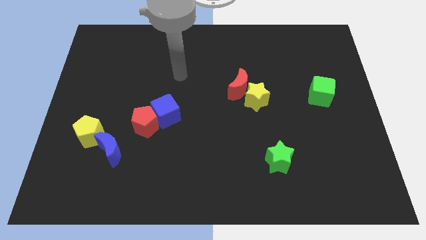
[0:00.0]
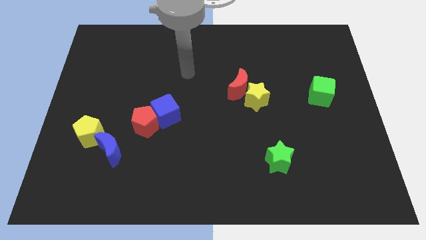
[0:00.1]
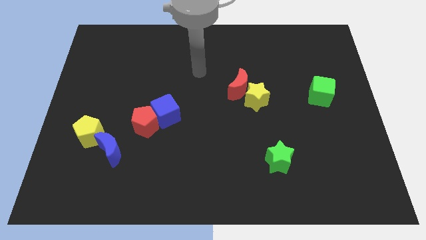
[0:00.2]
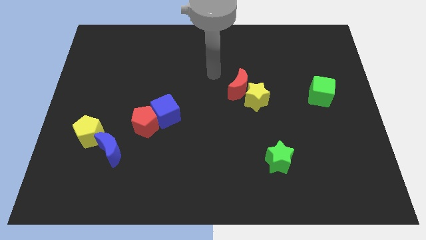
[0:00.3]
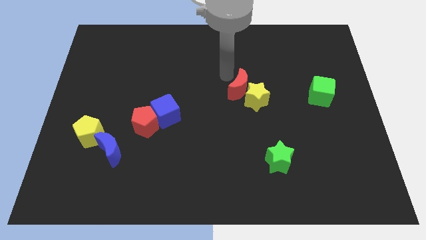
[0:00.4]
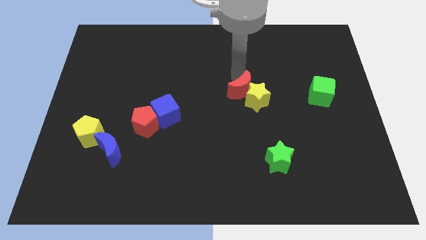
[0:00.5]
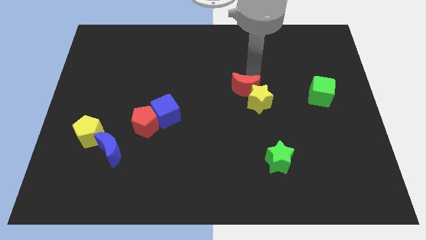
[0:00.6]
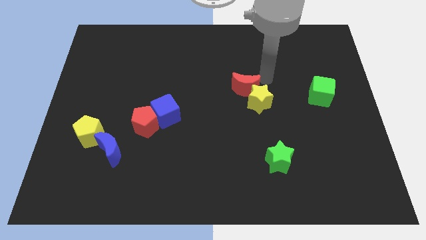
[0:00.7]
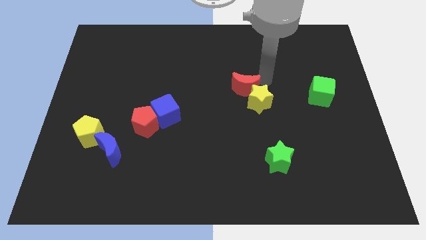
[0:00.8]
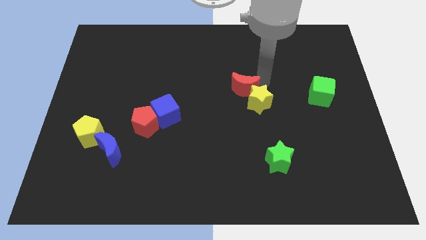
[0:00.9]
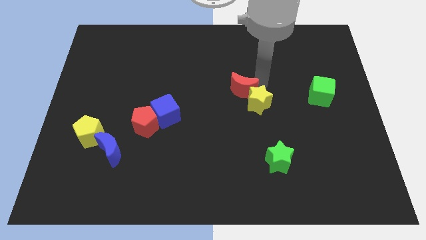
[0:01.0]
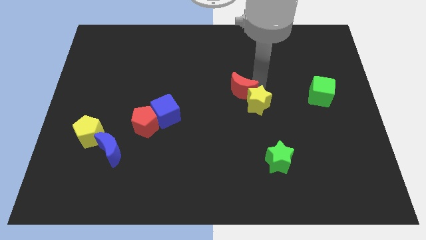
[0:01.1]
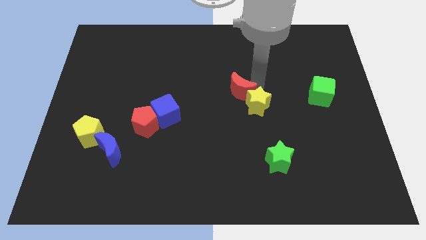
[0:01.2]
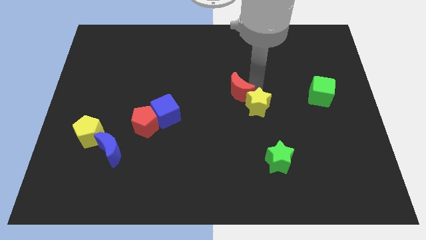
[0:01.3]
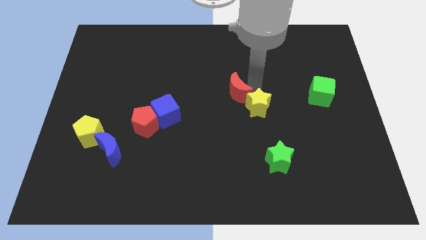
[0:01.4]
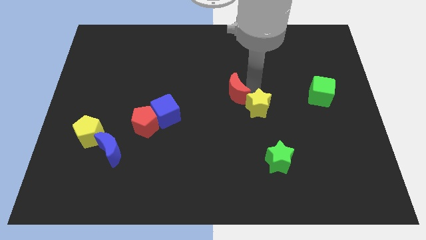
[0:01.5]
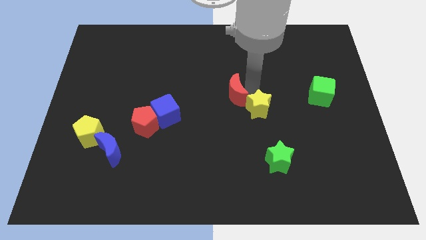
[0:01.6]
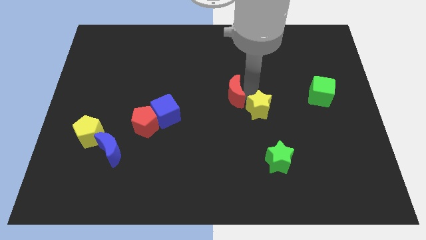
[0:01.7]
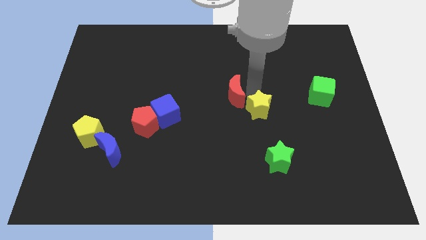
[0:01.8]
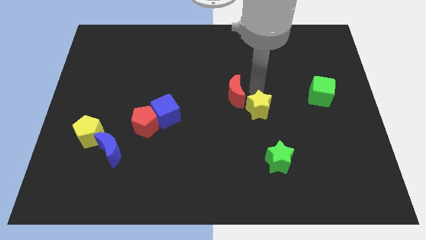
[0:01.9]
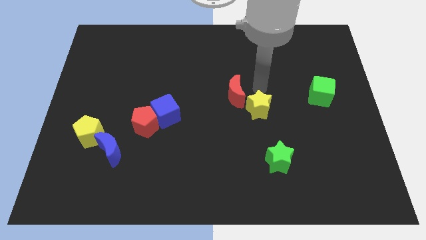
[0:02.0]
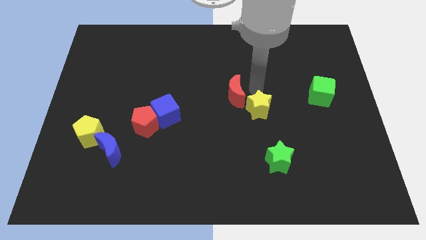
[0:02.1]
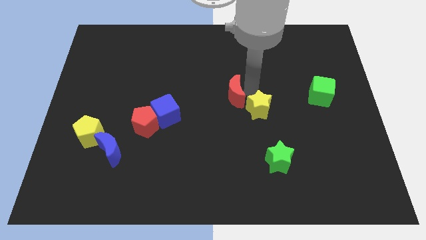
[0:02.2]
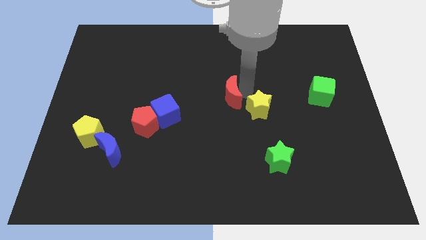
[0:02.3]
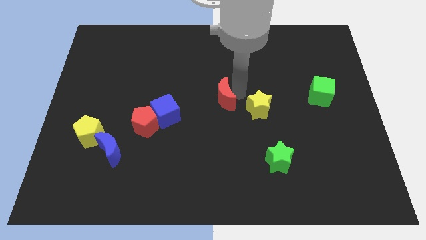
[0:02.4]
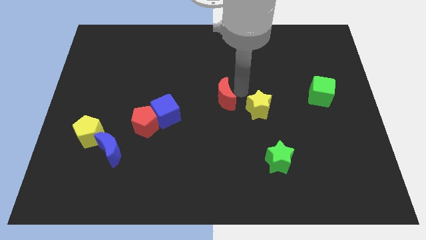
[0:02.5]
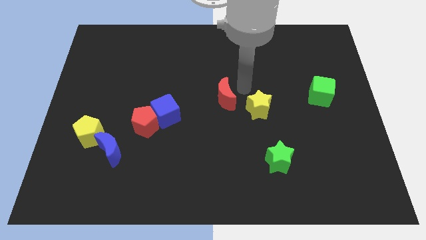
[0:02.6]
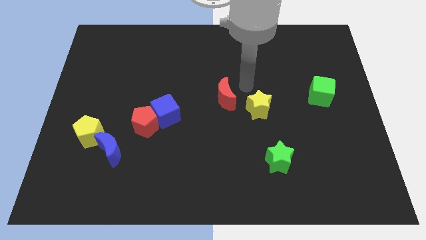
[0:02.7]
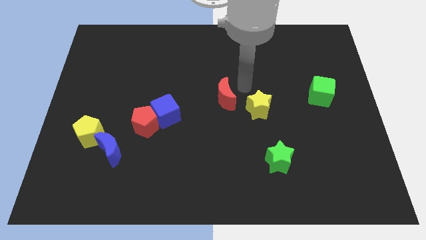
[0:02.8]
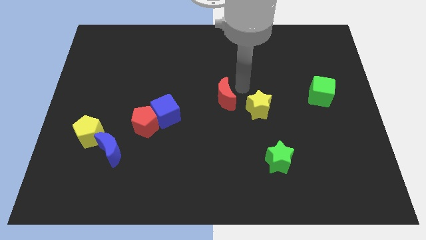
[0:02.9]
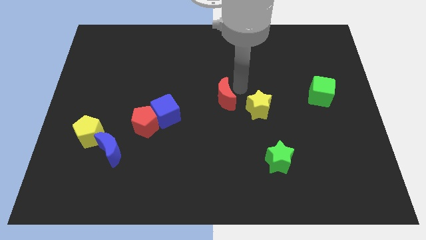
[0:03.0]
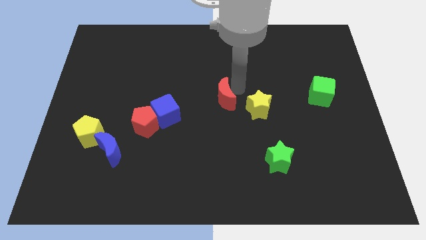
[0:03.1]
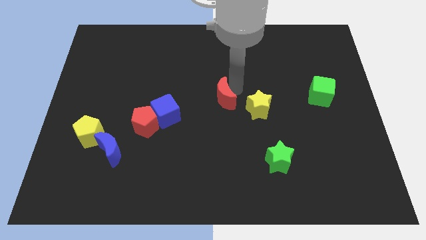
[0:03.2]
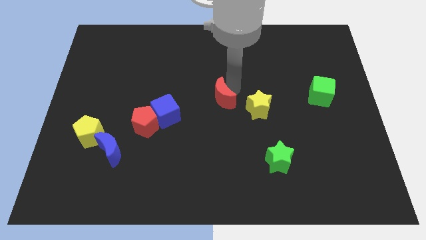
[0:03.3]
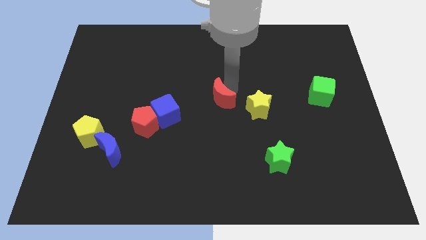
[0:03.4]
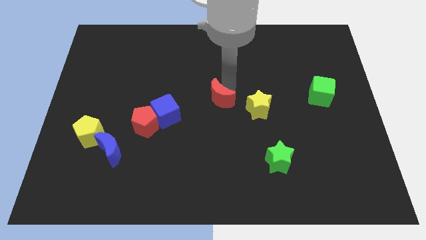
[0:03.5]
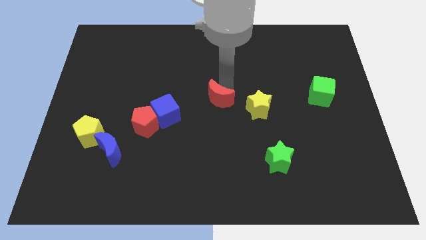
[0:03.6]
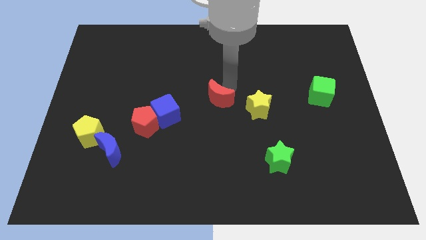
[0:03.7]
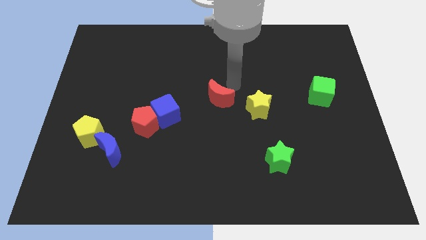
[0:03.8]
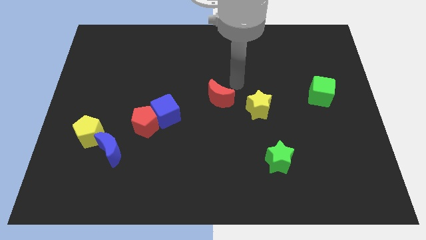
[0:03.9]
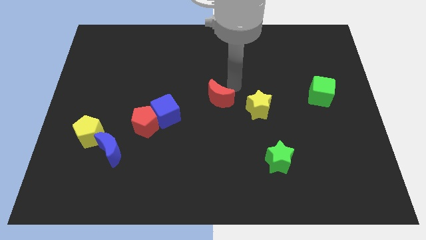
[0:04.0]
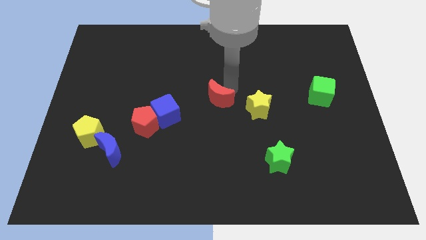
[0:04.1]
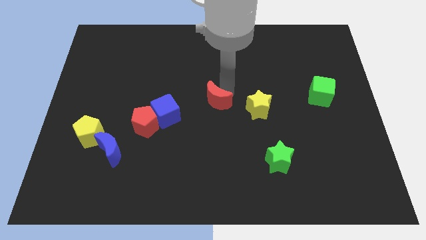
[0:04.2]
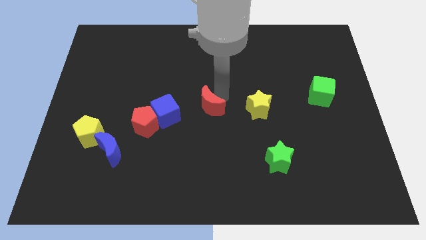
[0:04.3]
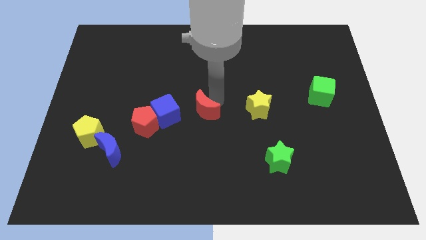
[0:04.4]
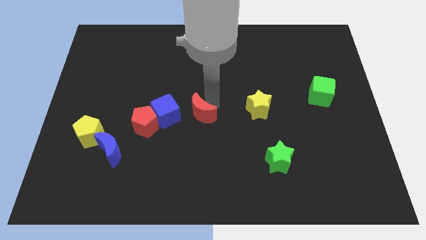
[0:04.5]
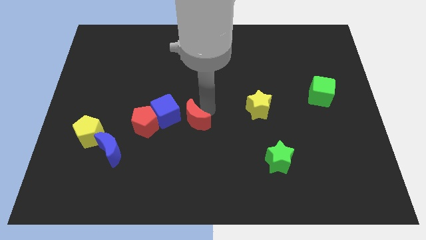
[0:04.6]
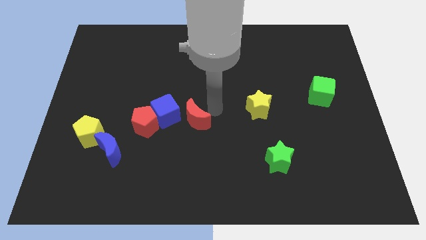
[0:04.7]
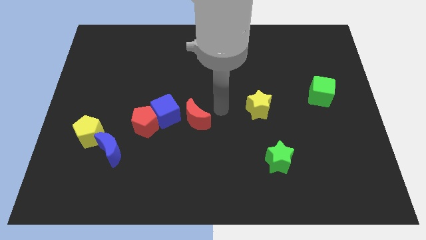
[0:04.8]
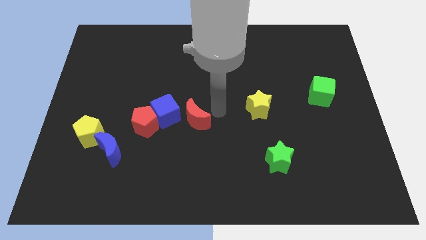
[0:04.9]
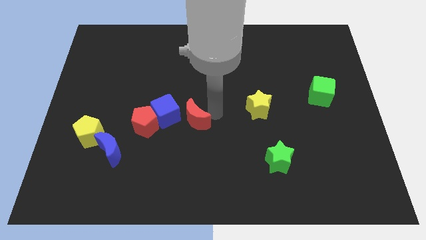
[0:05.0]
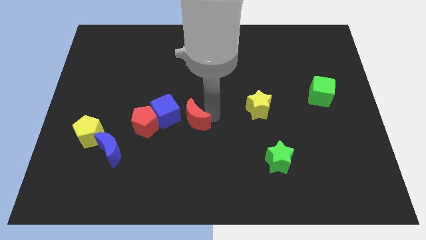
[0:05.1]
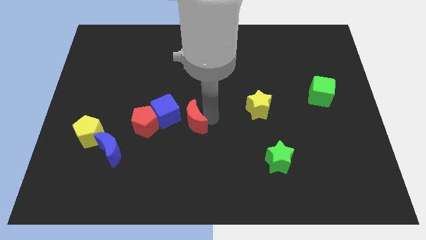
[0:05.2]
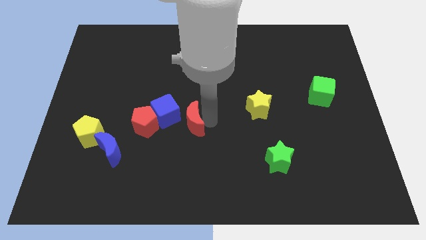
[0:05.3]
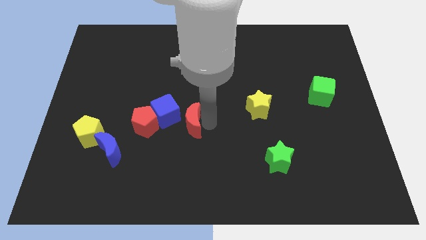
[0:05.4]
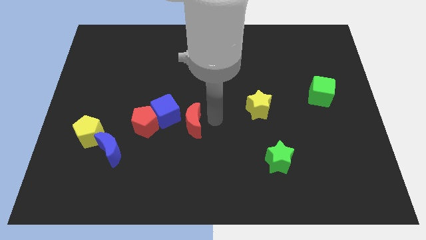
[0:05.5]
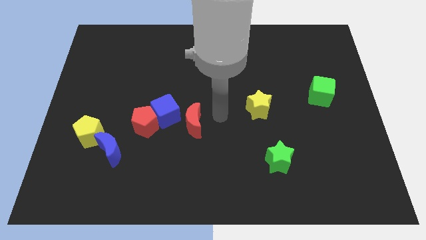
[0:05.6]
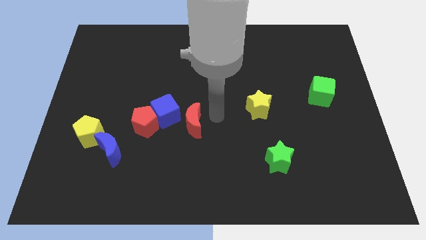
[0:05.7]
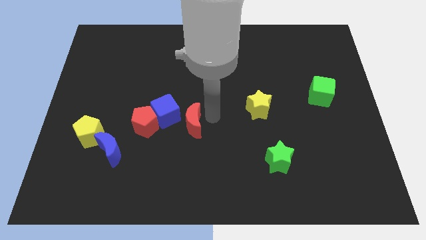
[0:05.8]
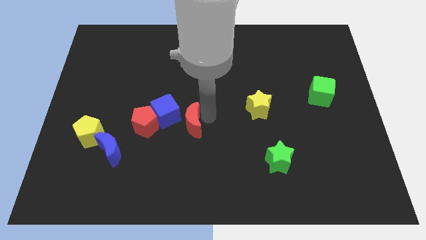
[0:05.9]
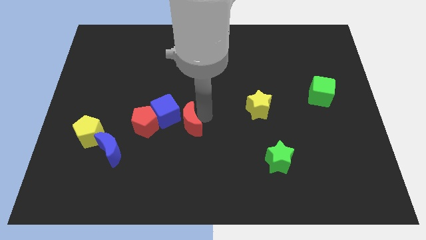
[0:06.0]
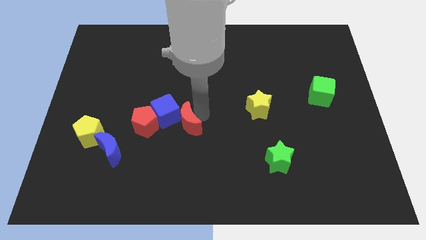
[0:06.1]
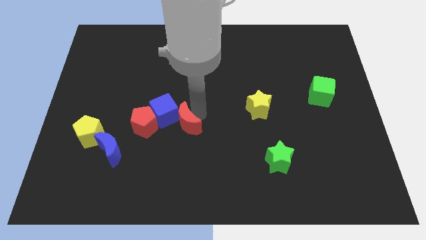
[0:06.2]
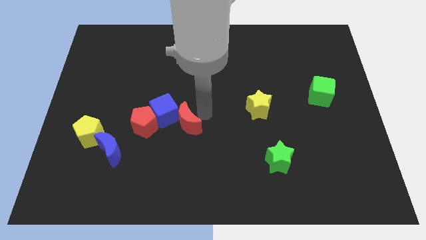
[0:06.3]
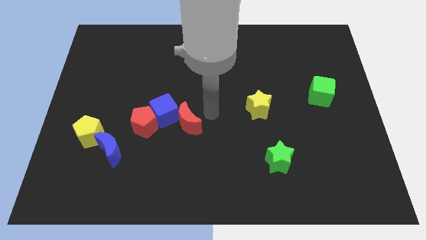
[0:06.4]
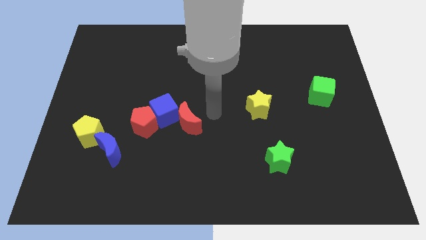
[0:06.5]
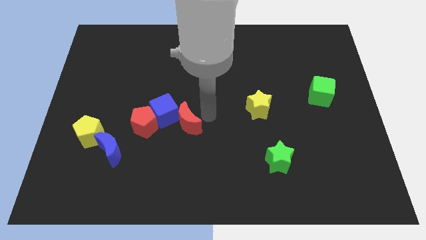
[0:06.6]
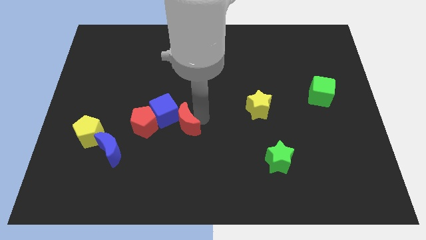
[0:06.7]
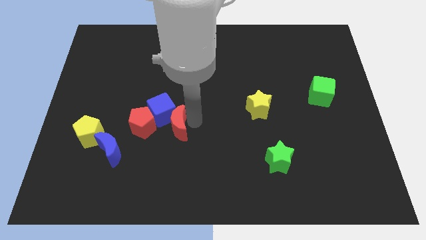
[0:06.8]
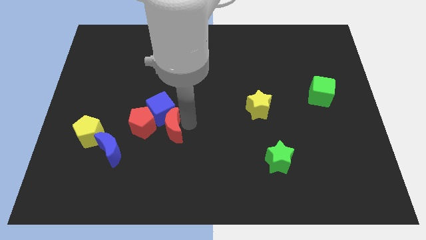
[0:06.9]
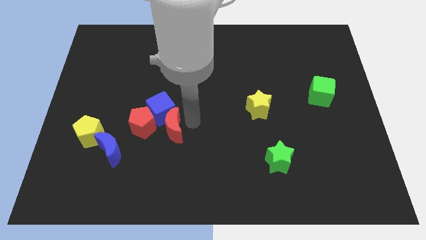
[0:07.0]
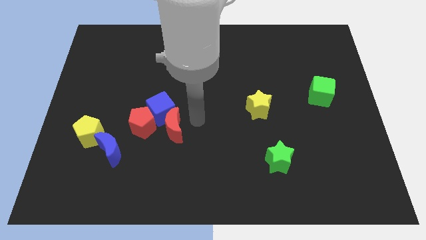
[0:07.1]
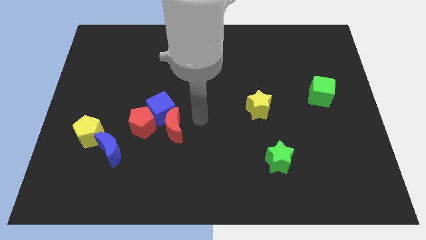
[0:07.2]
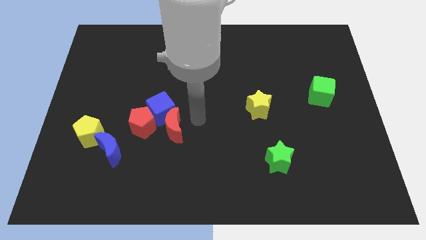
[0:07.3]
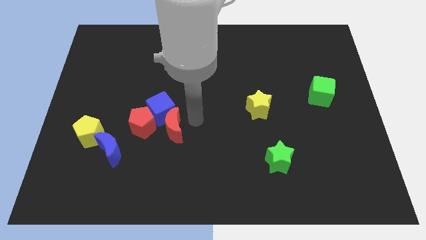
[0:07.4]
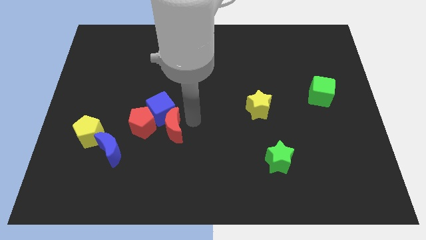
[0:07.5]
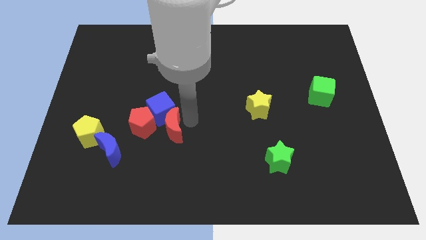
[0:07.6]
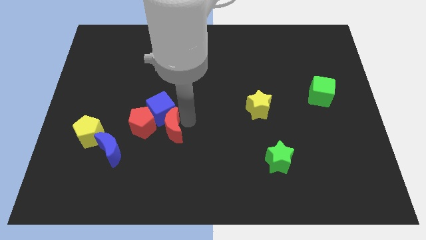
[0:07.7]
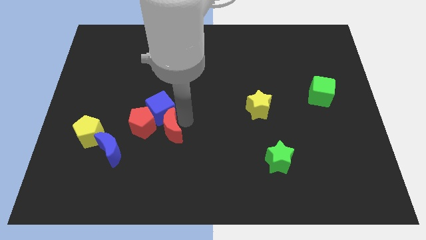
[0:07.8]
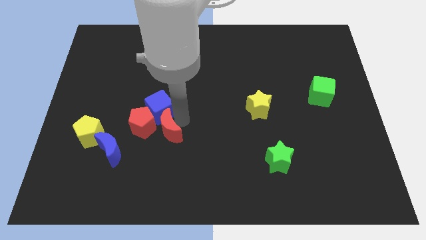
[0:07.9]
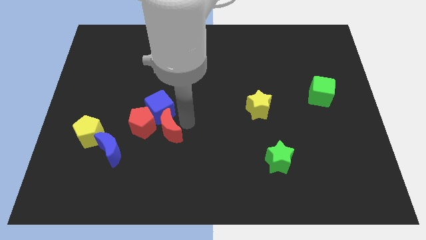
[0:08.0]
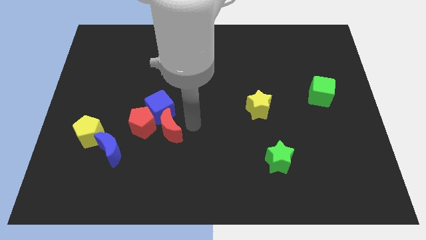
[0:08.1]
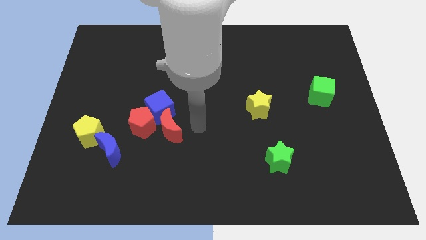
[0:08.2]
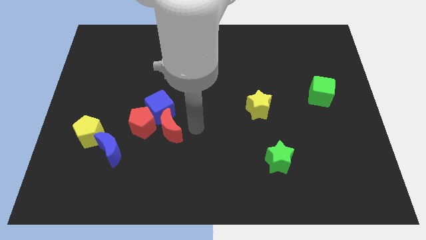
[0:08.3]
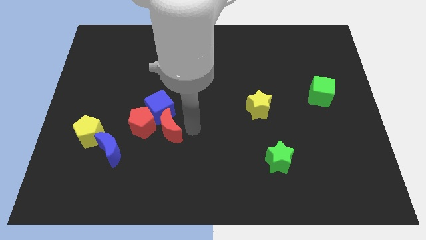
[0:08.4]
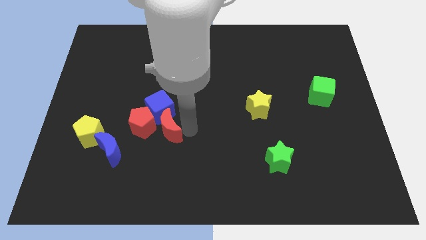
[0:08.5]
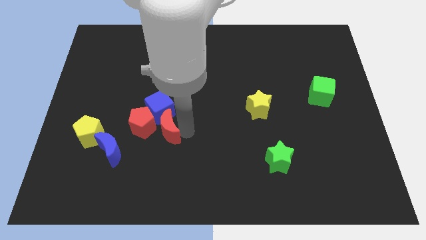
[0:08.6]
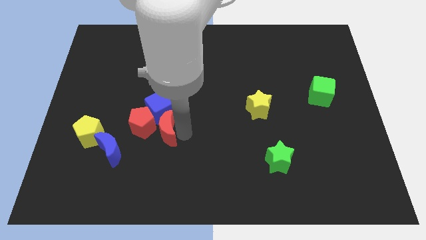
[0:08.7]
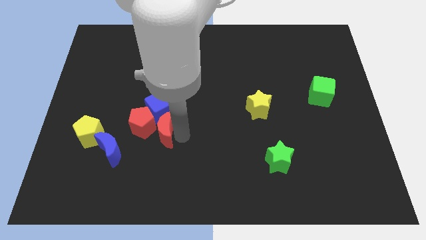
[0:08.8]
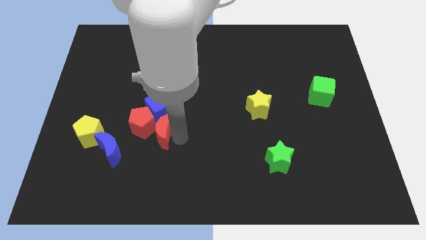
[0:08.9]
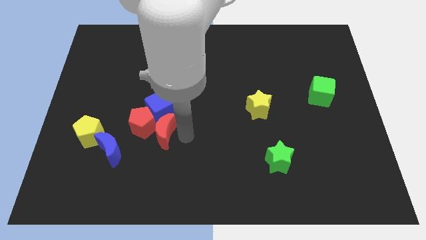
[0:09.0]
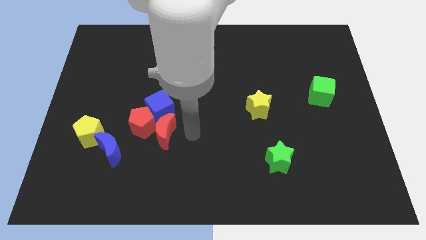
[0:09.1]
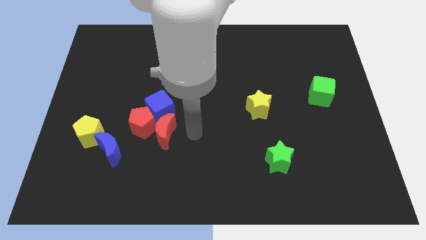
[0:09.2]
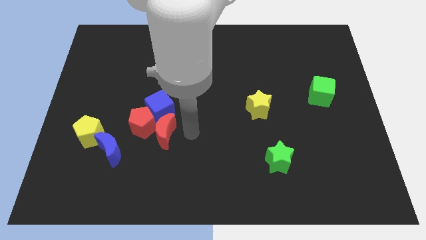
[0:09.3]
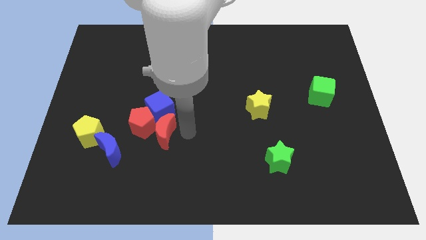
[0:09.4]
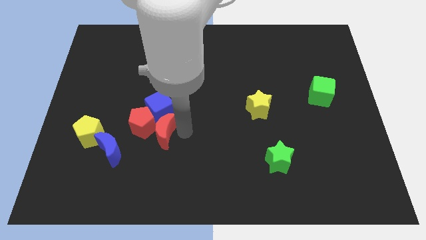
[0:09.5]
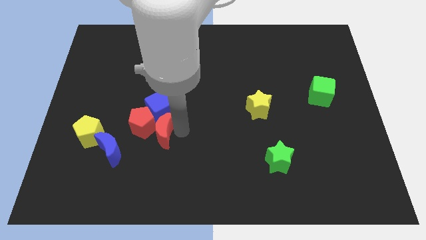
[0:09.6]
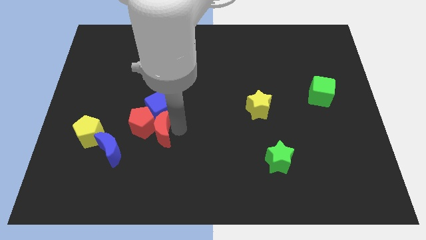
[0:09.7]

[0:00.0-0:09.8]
put the red moon just right of the yellow pentagon
